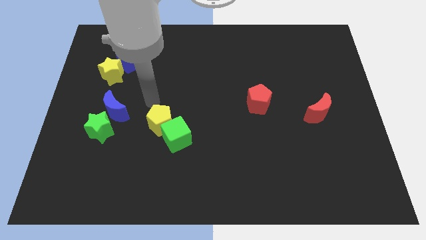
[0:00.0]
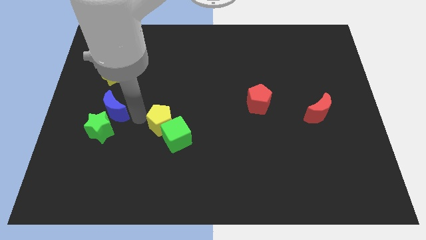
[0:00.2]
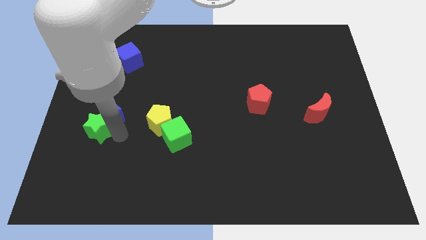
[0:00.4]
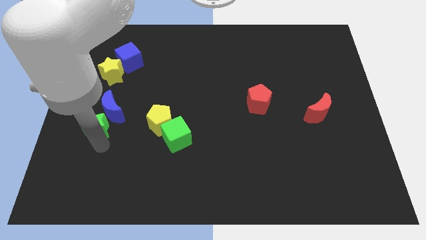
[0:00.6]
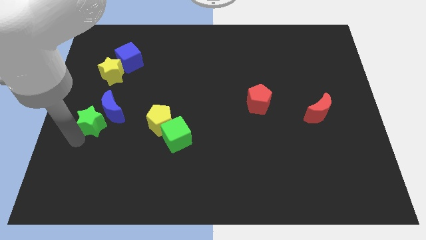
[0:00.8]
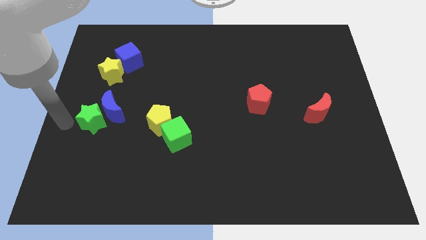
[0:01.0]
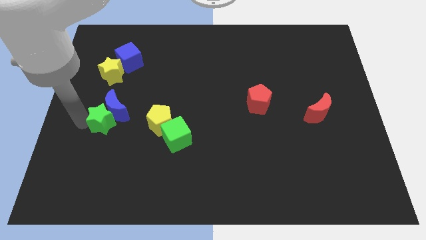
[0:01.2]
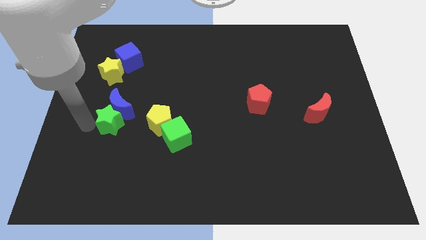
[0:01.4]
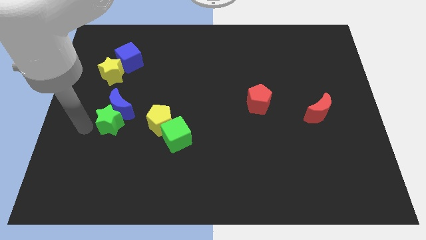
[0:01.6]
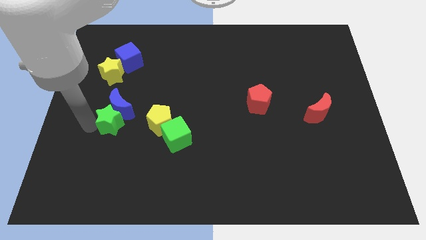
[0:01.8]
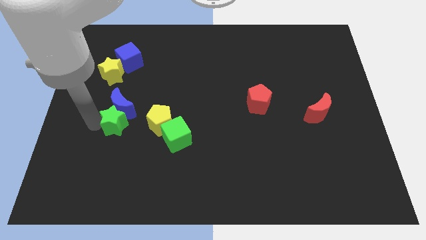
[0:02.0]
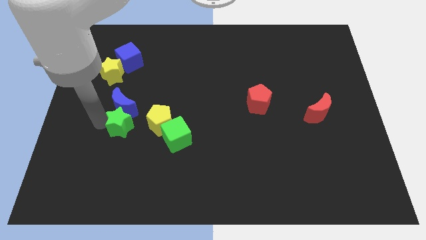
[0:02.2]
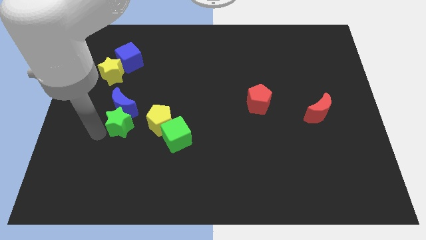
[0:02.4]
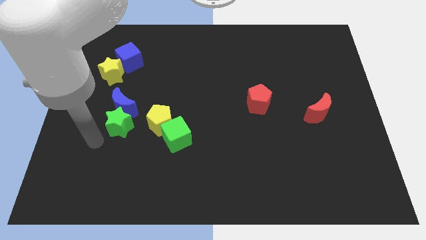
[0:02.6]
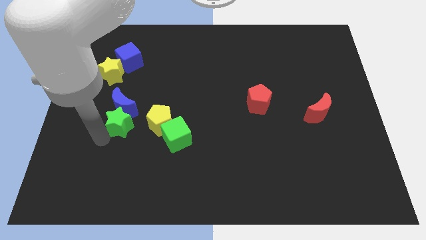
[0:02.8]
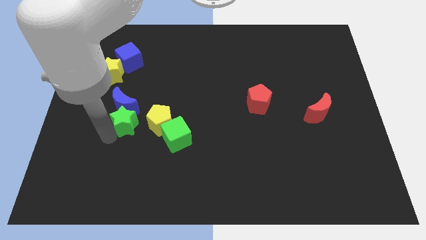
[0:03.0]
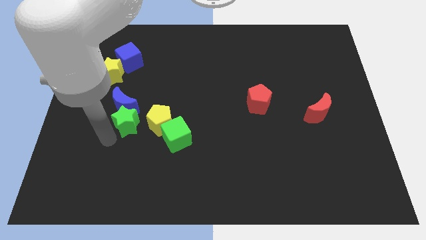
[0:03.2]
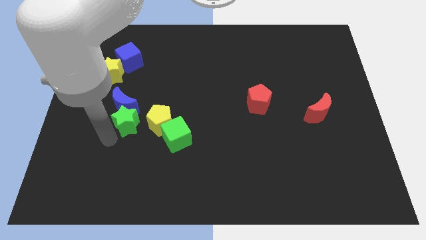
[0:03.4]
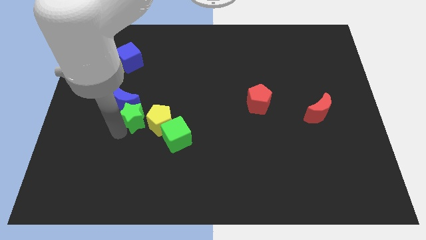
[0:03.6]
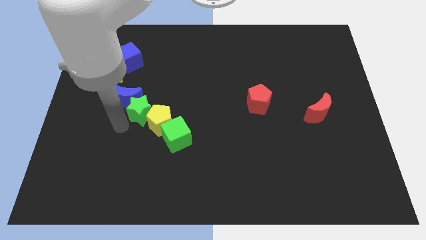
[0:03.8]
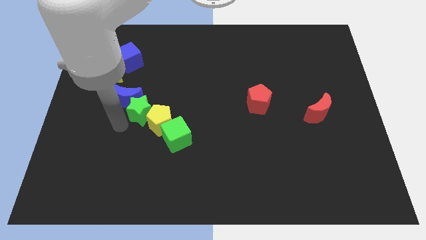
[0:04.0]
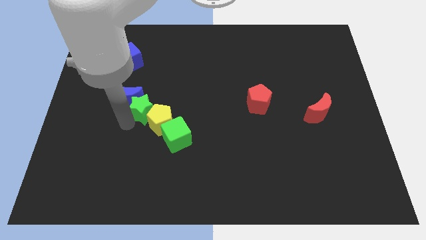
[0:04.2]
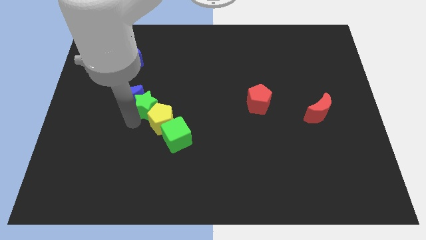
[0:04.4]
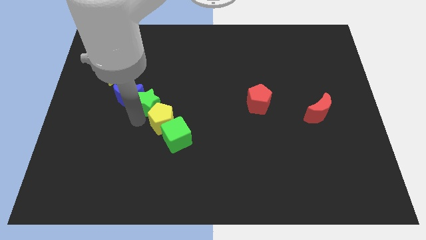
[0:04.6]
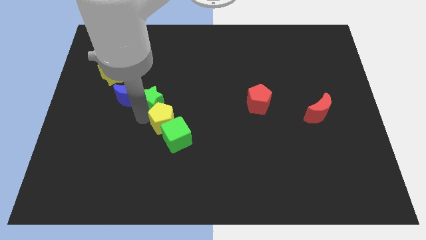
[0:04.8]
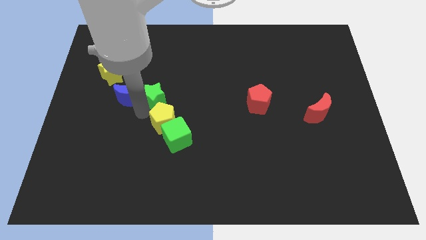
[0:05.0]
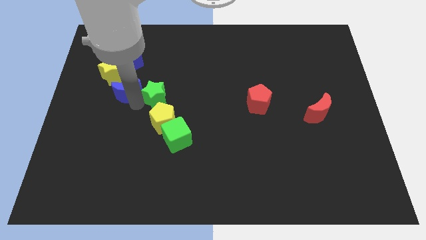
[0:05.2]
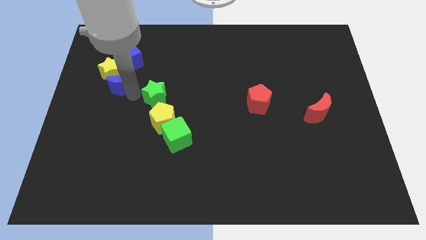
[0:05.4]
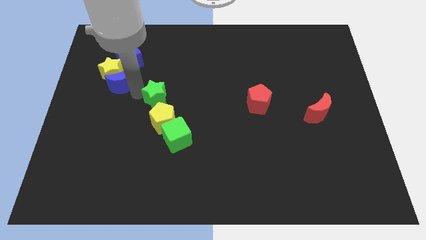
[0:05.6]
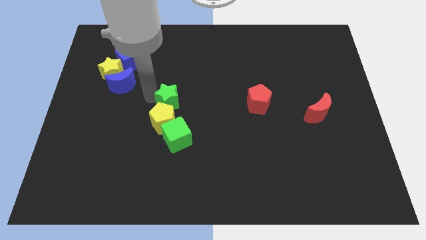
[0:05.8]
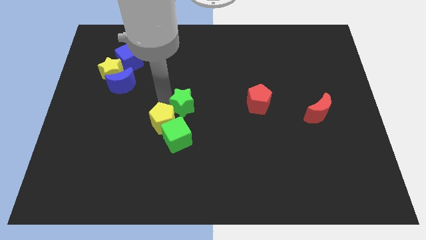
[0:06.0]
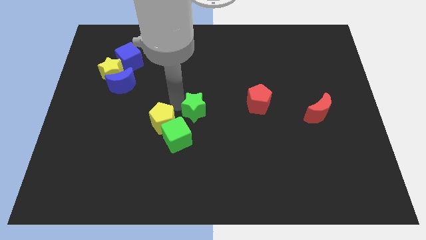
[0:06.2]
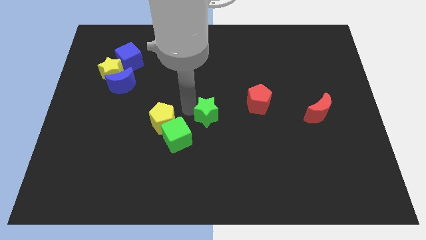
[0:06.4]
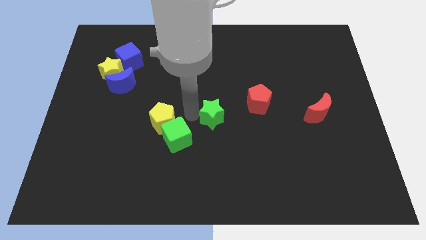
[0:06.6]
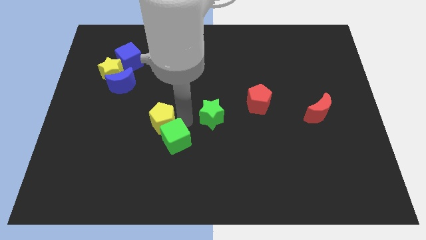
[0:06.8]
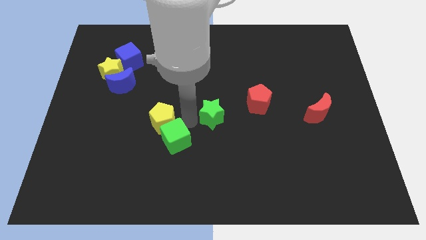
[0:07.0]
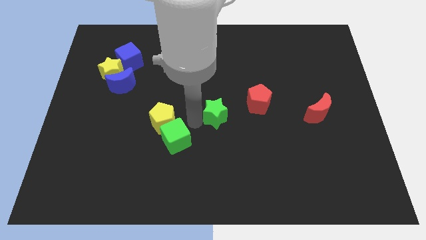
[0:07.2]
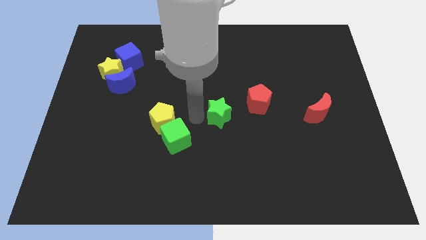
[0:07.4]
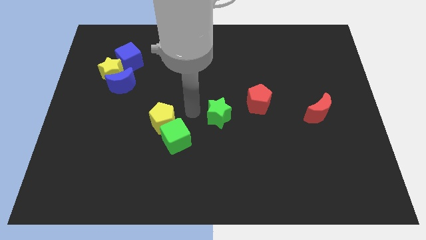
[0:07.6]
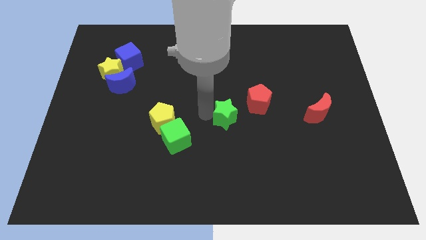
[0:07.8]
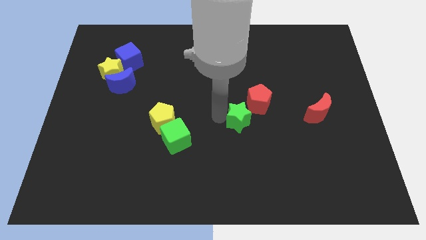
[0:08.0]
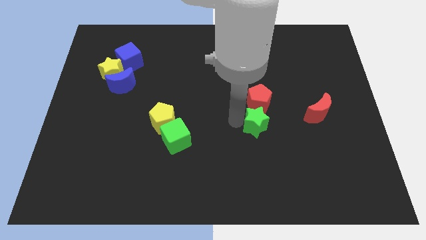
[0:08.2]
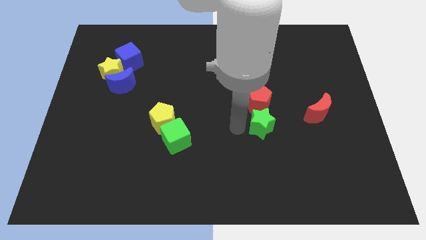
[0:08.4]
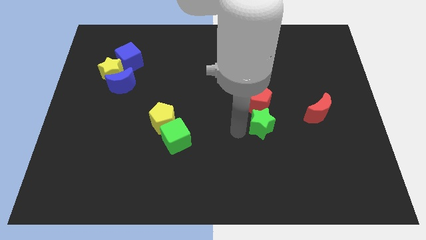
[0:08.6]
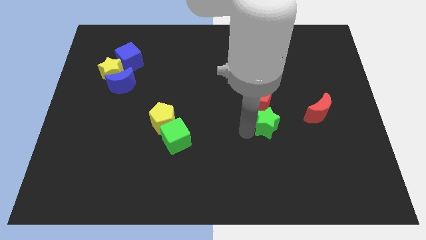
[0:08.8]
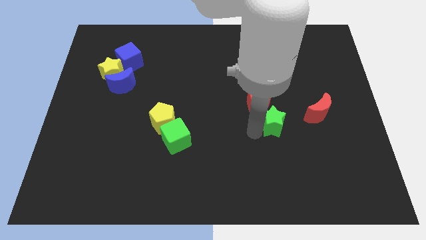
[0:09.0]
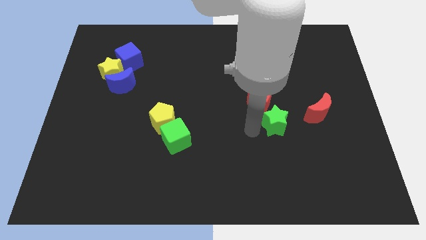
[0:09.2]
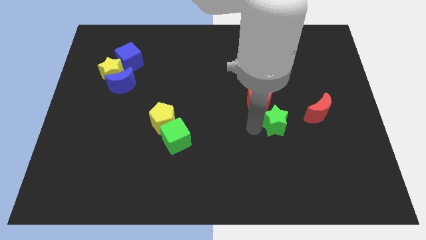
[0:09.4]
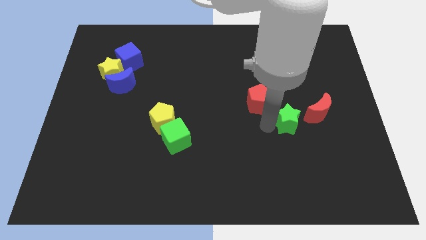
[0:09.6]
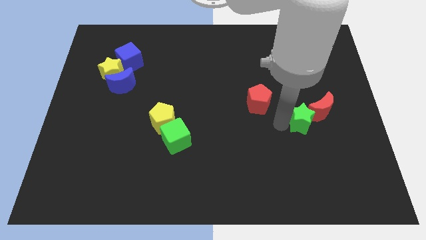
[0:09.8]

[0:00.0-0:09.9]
push the green star next to the red moon

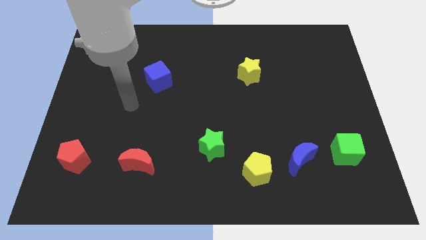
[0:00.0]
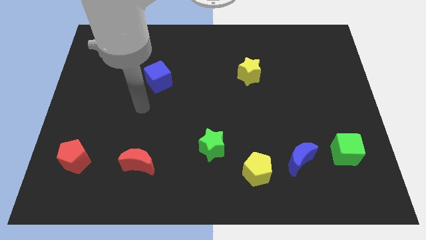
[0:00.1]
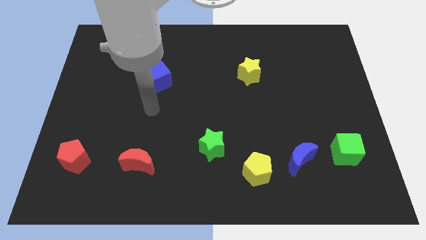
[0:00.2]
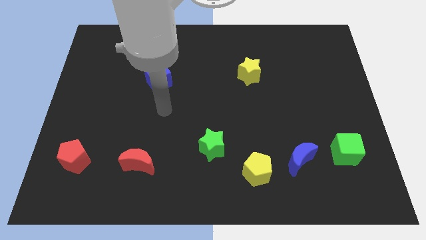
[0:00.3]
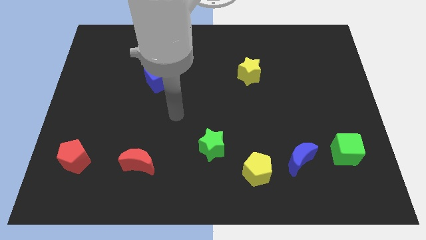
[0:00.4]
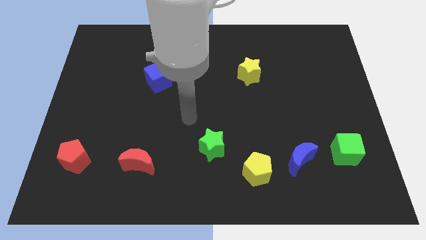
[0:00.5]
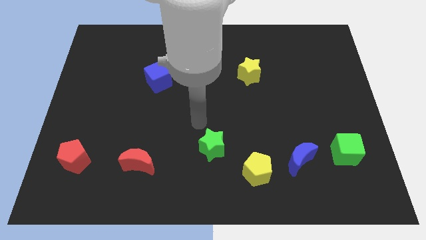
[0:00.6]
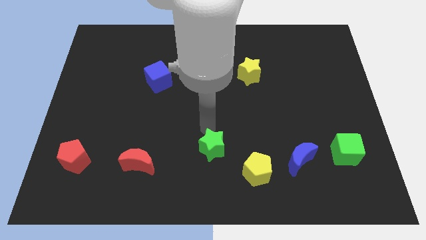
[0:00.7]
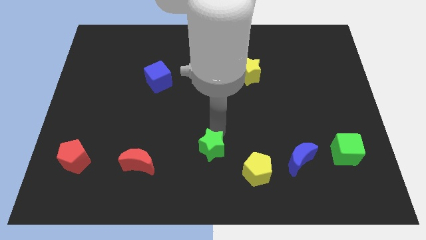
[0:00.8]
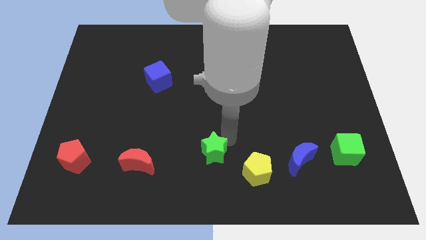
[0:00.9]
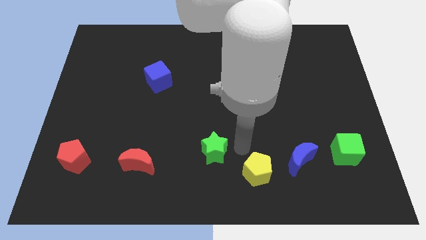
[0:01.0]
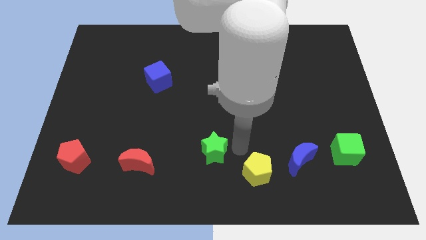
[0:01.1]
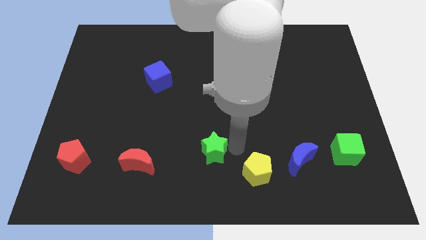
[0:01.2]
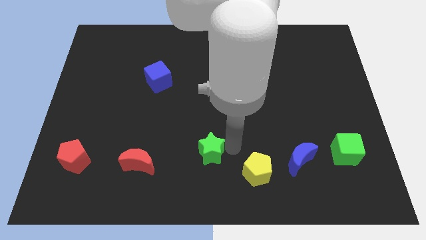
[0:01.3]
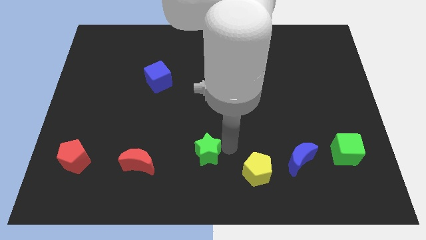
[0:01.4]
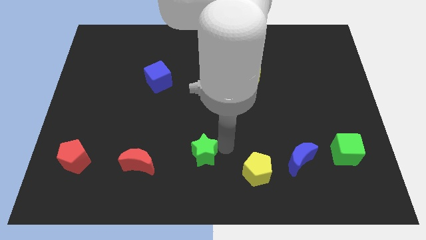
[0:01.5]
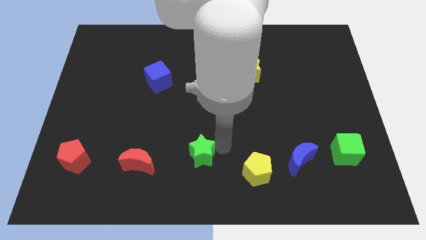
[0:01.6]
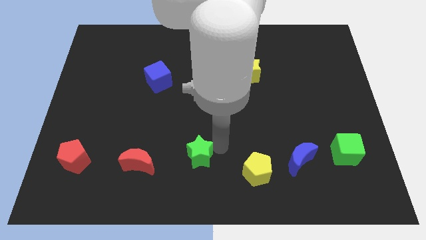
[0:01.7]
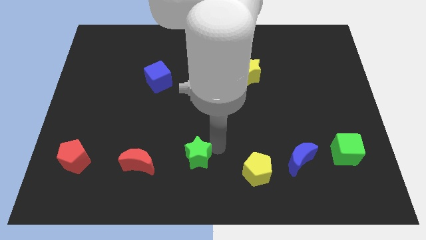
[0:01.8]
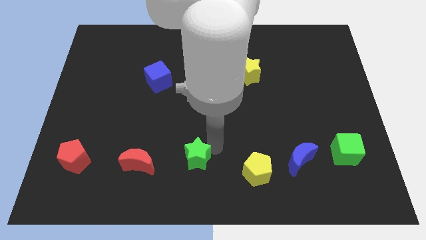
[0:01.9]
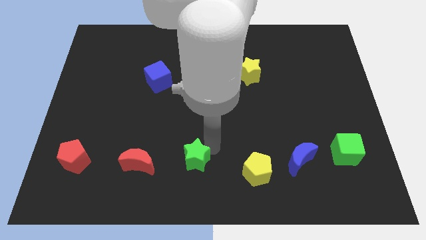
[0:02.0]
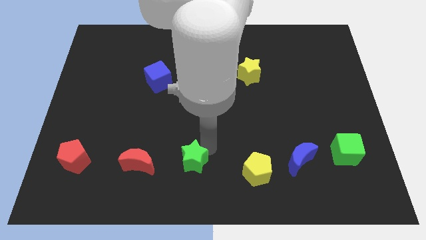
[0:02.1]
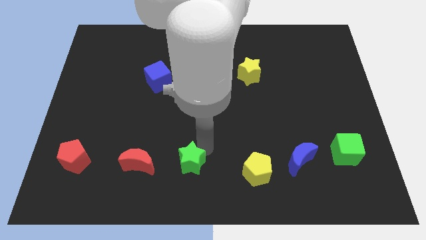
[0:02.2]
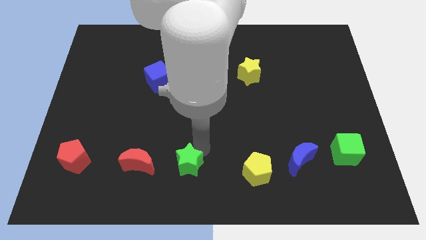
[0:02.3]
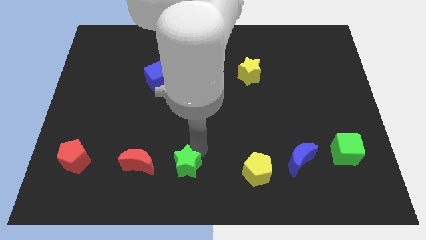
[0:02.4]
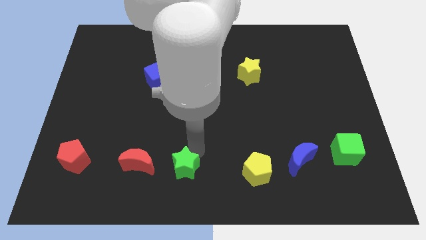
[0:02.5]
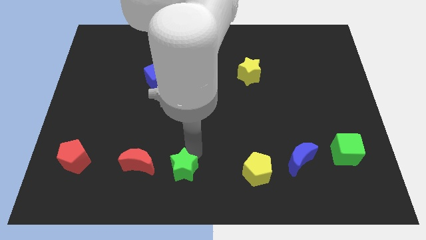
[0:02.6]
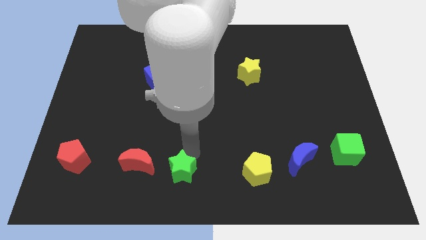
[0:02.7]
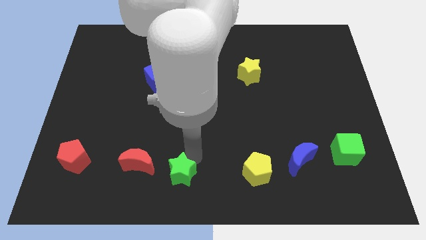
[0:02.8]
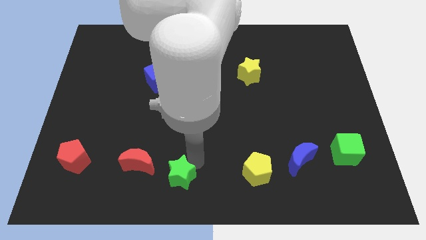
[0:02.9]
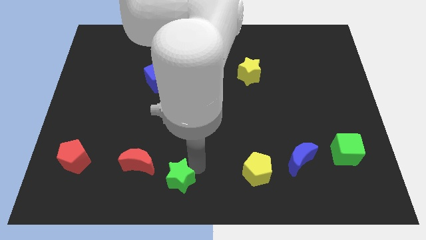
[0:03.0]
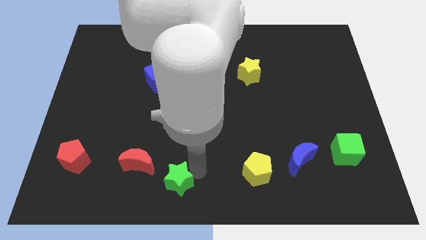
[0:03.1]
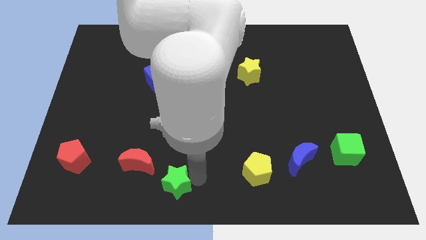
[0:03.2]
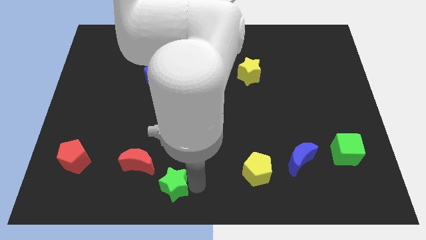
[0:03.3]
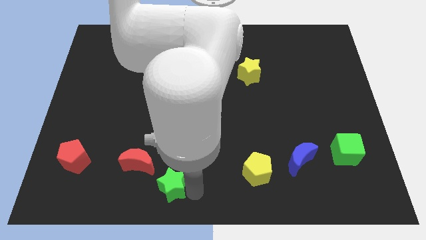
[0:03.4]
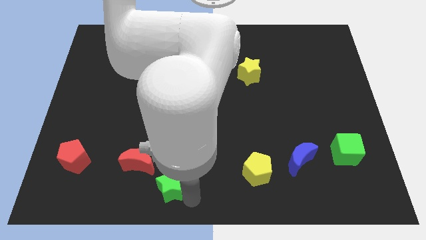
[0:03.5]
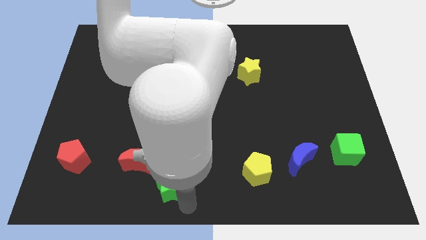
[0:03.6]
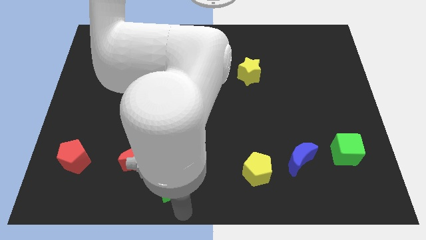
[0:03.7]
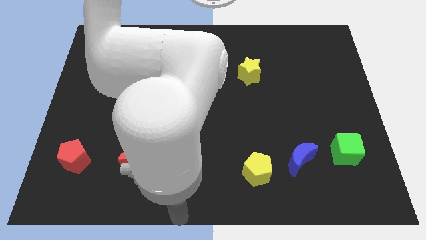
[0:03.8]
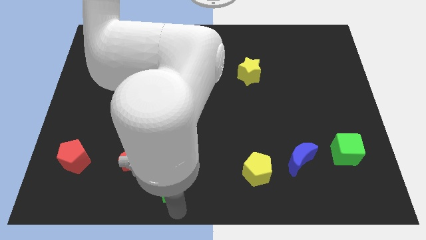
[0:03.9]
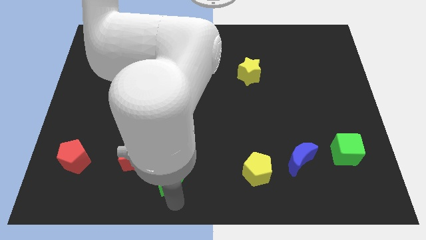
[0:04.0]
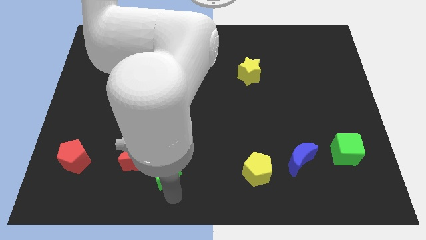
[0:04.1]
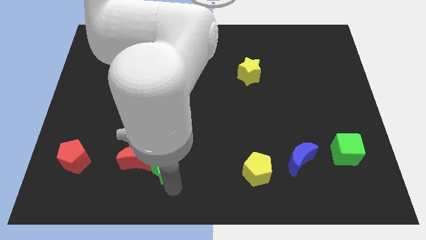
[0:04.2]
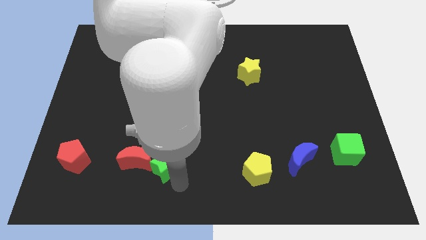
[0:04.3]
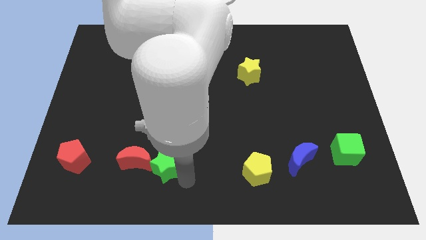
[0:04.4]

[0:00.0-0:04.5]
move the green star close to the red moon
